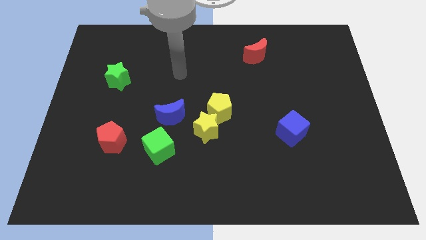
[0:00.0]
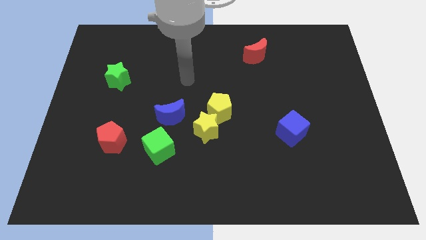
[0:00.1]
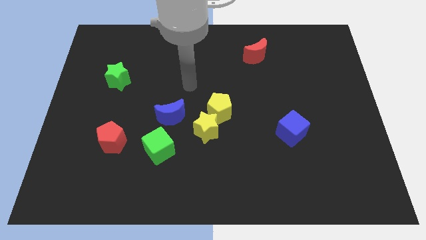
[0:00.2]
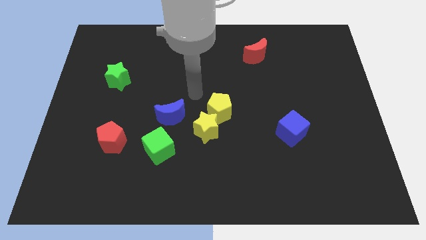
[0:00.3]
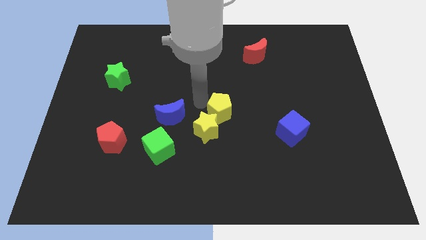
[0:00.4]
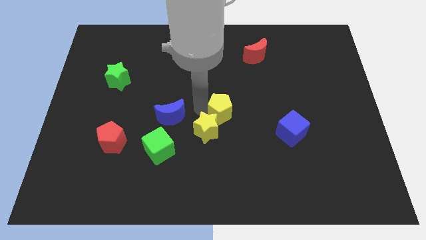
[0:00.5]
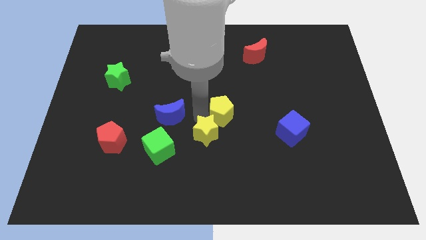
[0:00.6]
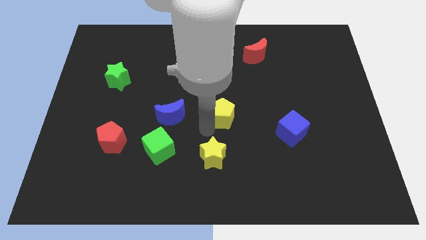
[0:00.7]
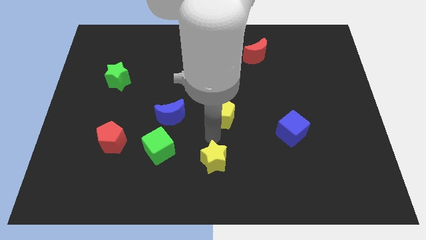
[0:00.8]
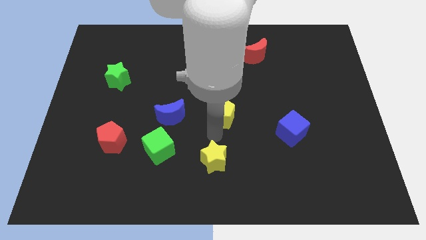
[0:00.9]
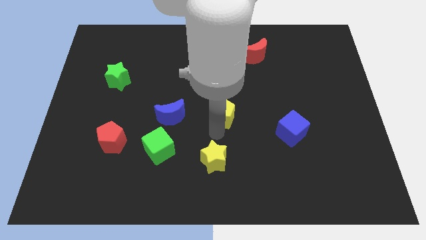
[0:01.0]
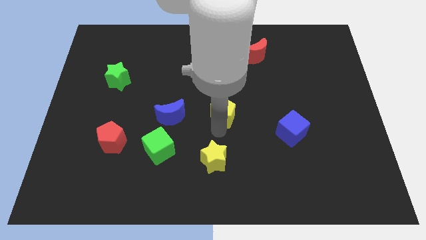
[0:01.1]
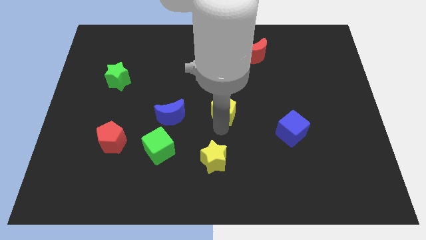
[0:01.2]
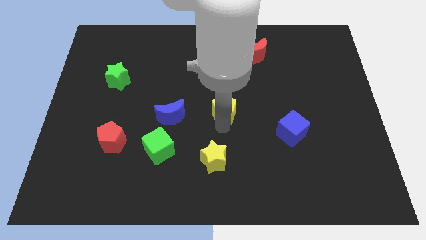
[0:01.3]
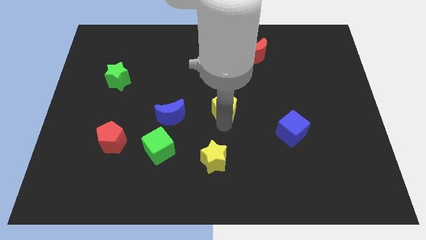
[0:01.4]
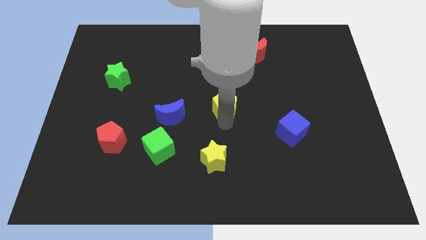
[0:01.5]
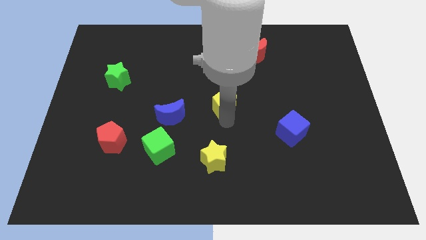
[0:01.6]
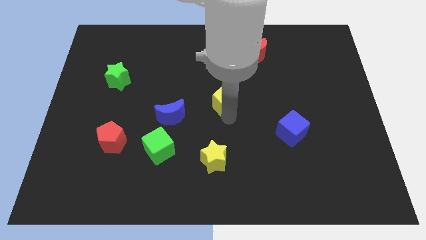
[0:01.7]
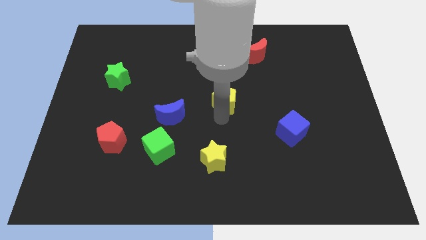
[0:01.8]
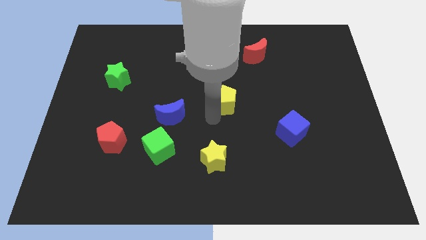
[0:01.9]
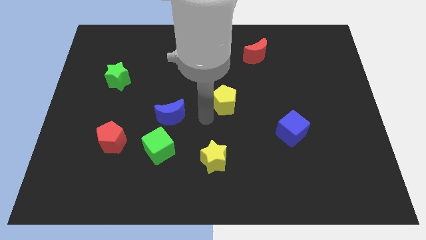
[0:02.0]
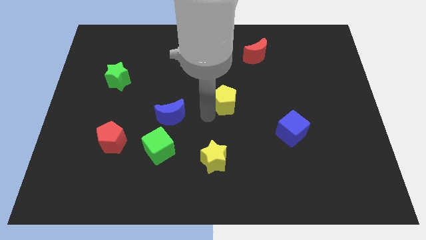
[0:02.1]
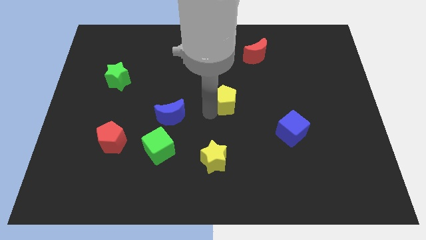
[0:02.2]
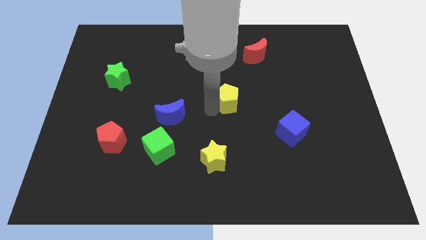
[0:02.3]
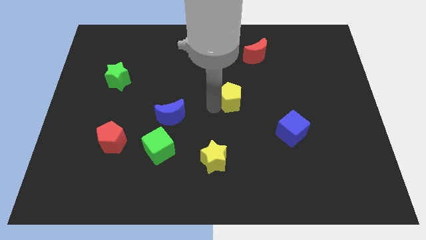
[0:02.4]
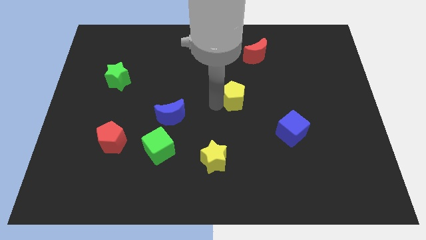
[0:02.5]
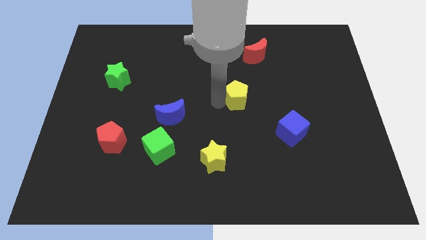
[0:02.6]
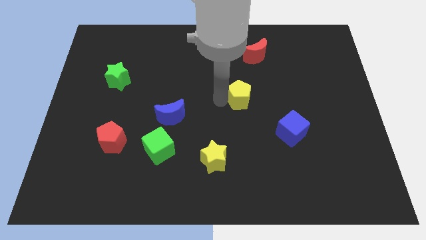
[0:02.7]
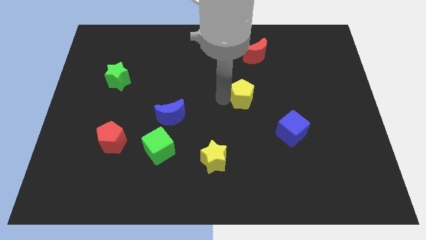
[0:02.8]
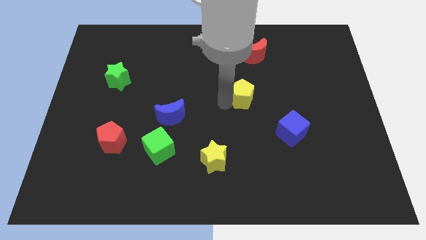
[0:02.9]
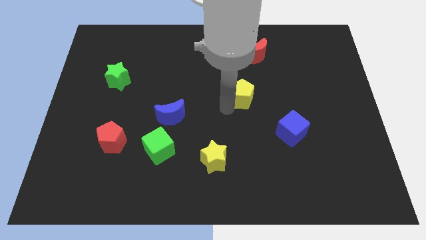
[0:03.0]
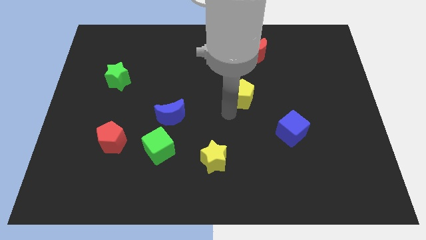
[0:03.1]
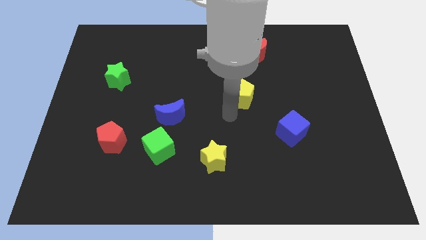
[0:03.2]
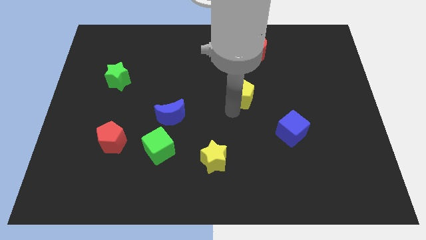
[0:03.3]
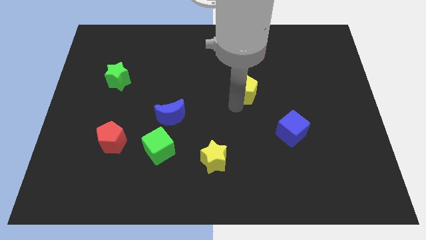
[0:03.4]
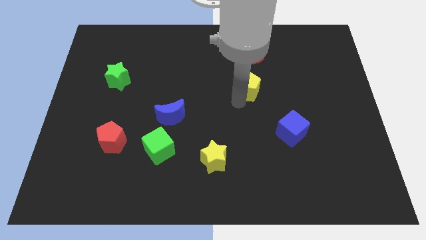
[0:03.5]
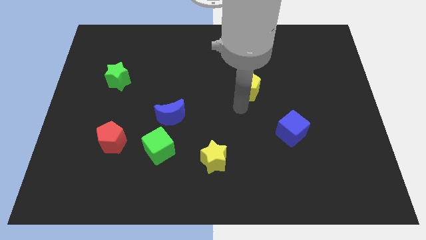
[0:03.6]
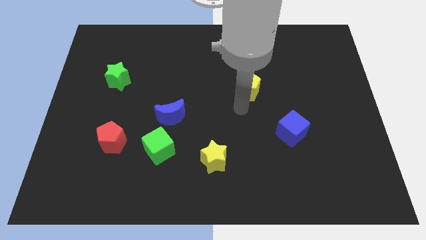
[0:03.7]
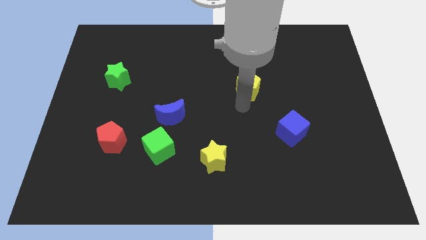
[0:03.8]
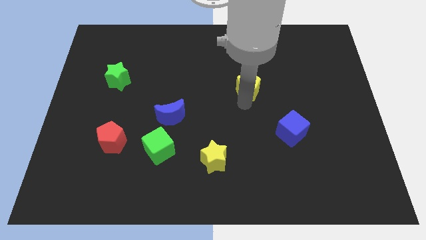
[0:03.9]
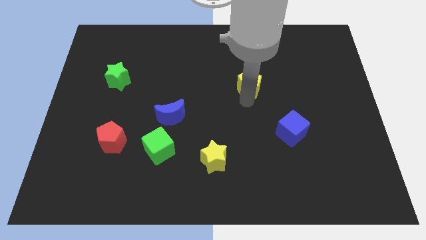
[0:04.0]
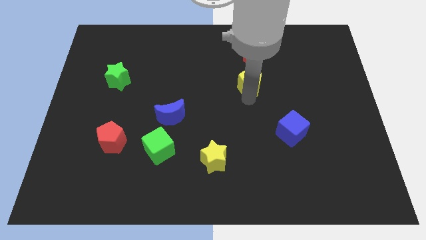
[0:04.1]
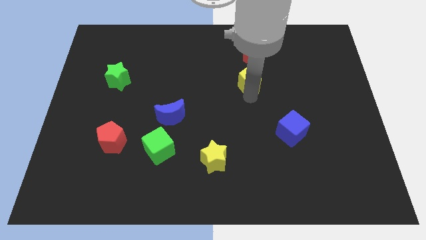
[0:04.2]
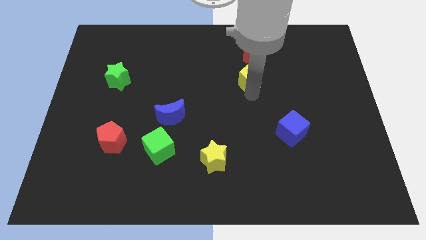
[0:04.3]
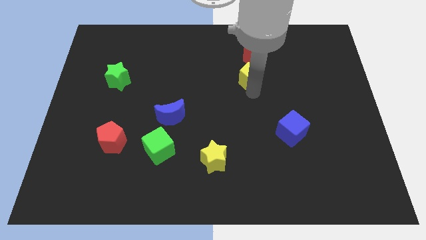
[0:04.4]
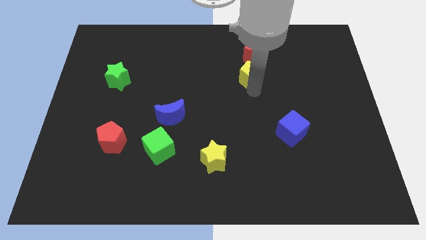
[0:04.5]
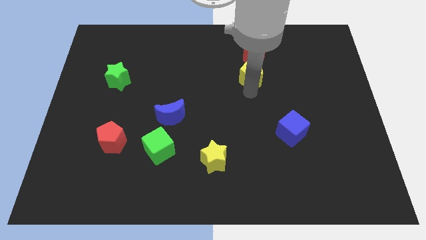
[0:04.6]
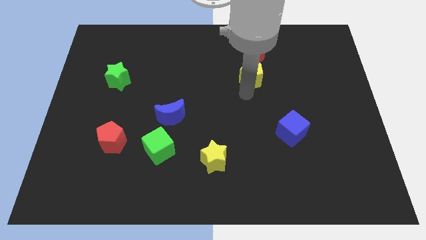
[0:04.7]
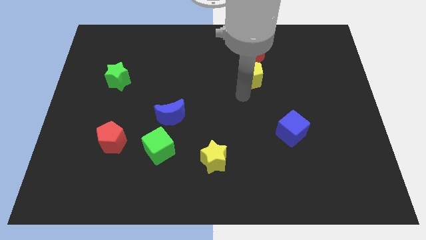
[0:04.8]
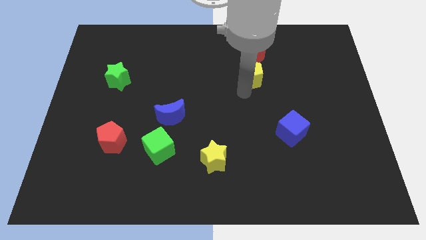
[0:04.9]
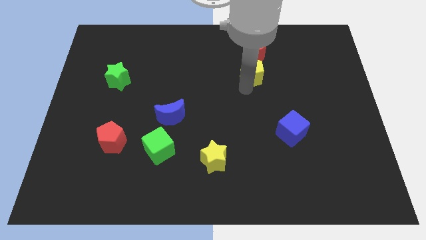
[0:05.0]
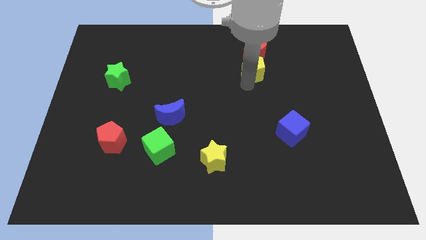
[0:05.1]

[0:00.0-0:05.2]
push the yellow pentagon close to the red moon

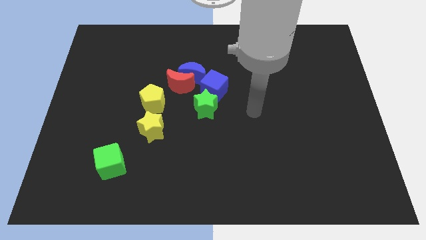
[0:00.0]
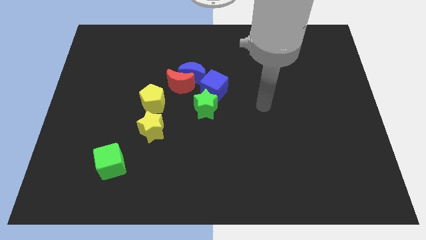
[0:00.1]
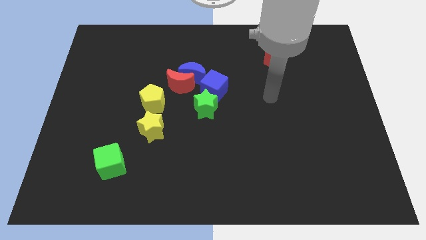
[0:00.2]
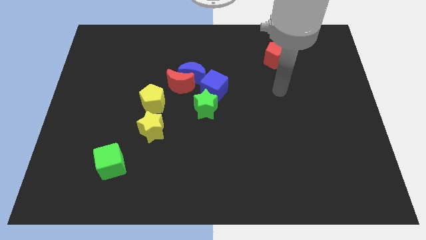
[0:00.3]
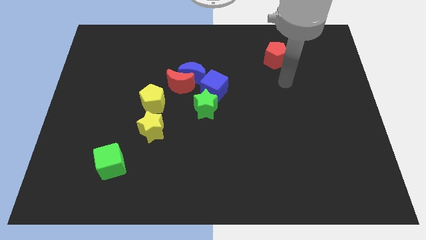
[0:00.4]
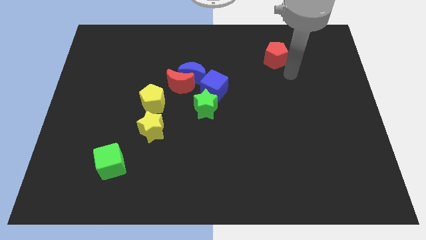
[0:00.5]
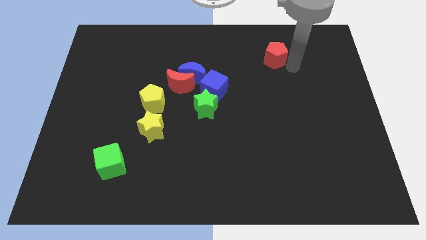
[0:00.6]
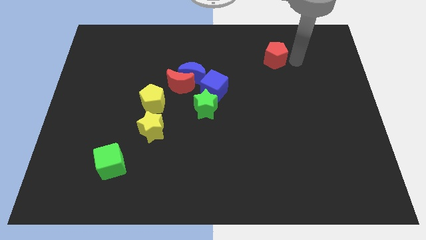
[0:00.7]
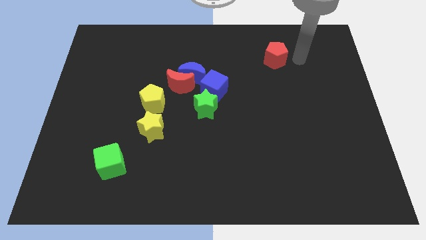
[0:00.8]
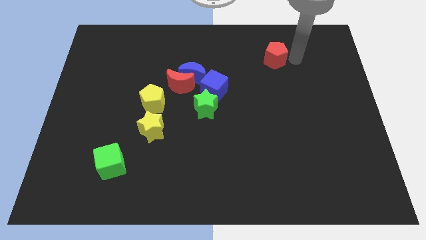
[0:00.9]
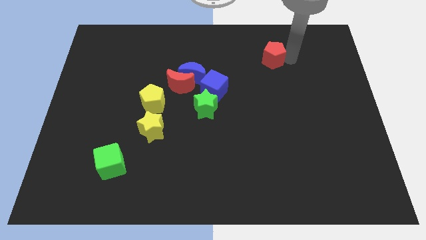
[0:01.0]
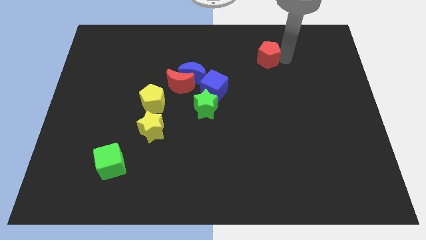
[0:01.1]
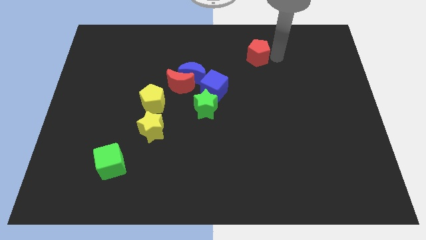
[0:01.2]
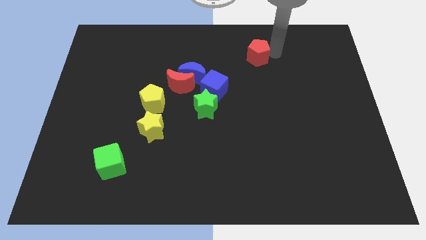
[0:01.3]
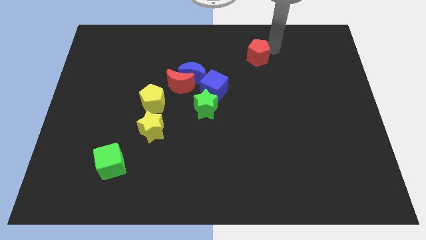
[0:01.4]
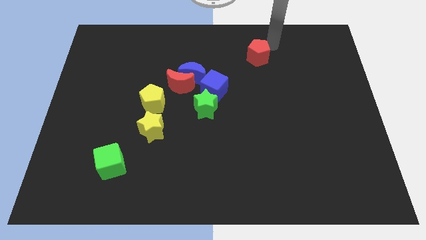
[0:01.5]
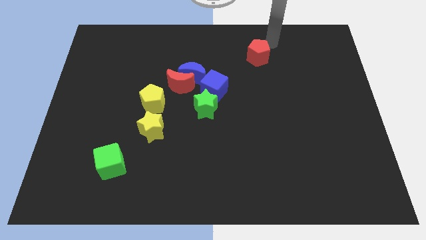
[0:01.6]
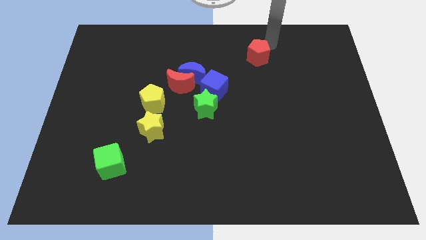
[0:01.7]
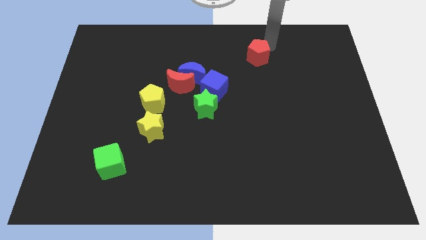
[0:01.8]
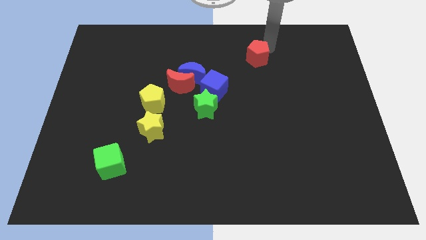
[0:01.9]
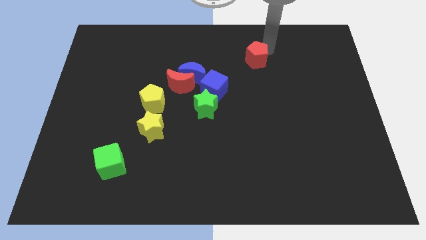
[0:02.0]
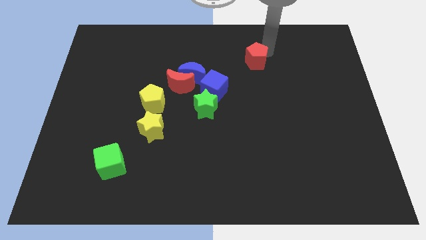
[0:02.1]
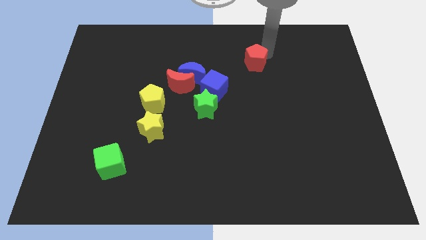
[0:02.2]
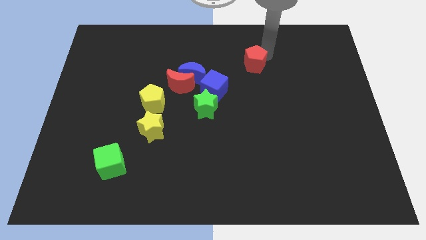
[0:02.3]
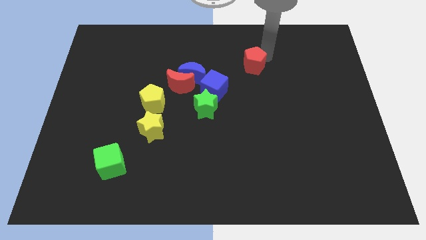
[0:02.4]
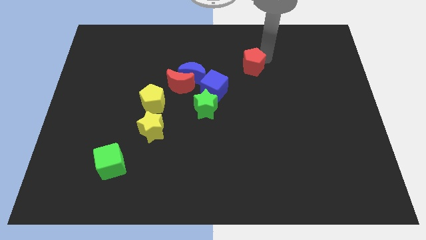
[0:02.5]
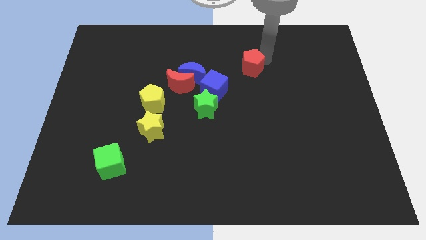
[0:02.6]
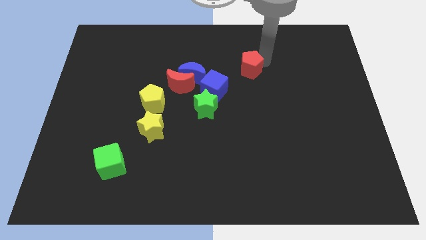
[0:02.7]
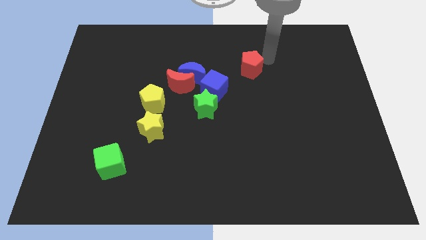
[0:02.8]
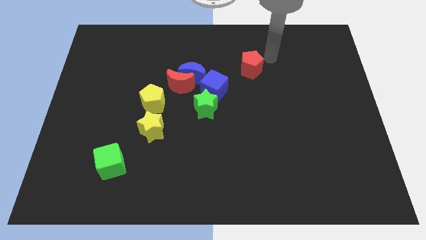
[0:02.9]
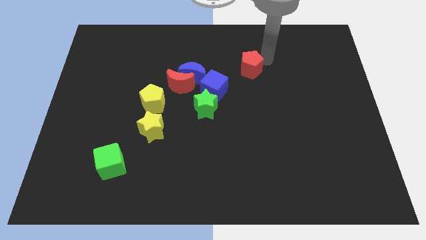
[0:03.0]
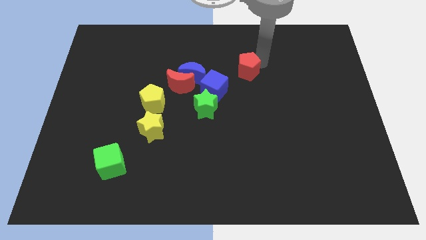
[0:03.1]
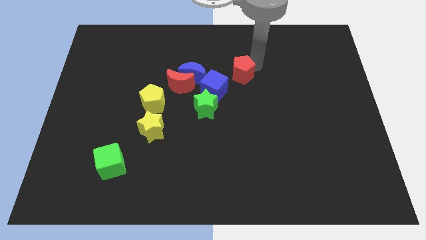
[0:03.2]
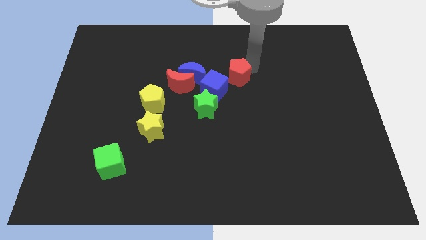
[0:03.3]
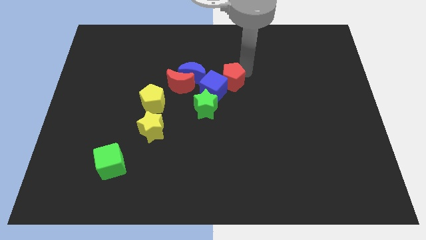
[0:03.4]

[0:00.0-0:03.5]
move the red pentagon to the blue cube
